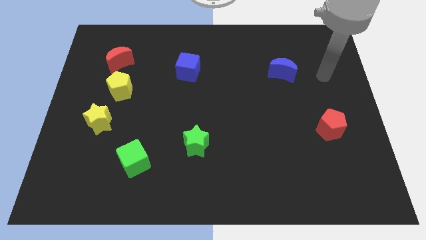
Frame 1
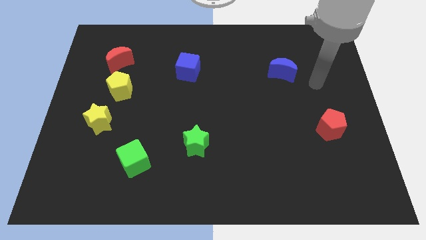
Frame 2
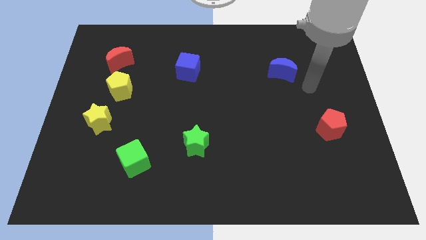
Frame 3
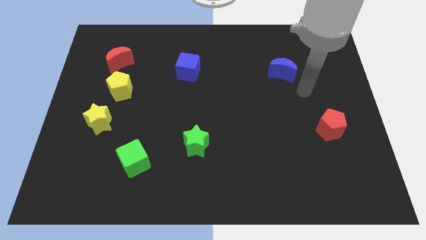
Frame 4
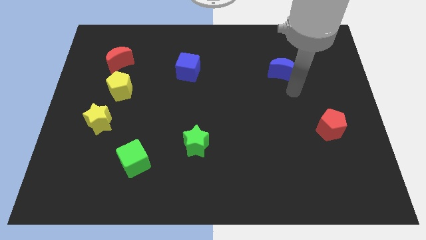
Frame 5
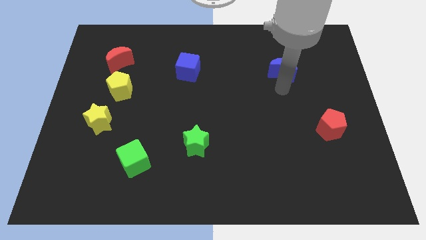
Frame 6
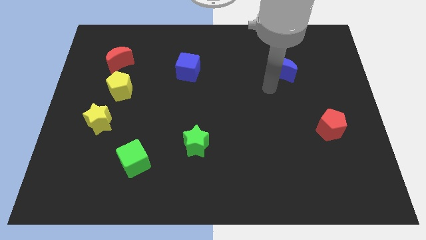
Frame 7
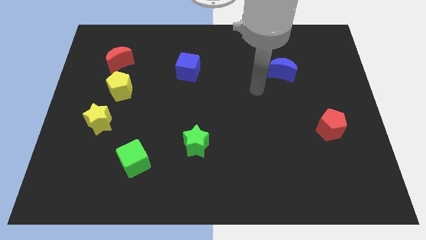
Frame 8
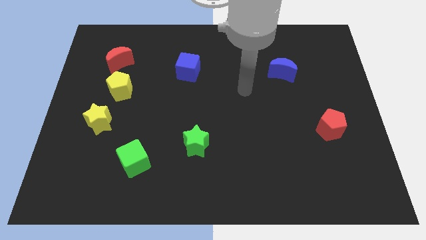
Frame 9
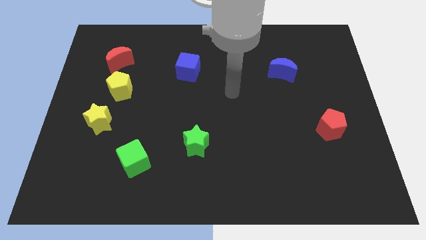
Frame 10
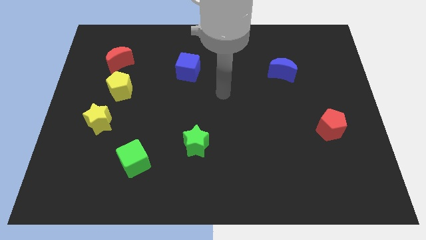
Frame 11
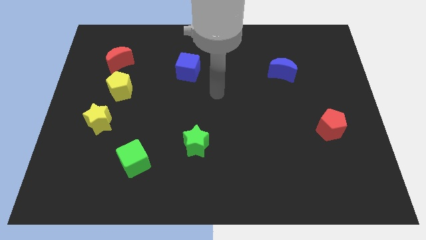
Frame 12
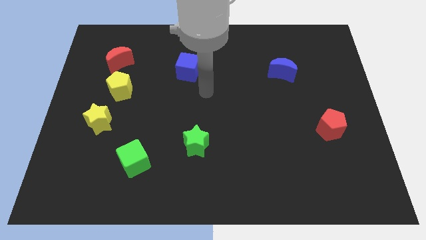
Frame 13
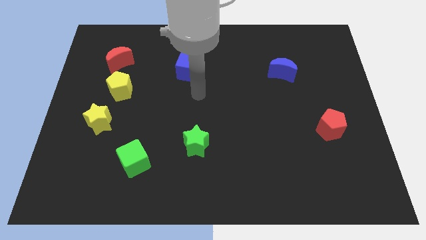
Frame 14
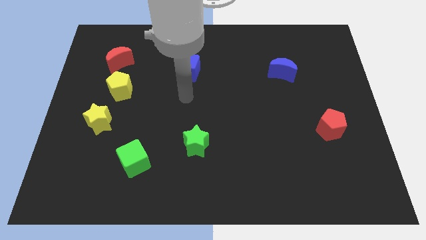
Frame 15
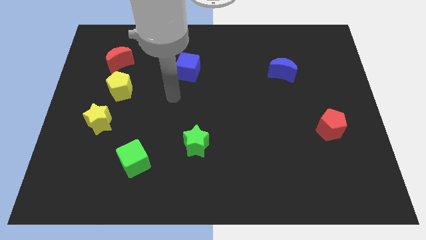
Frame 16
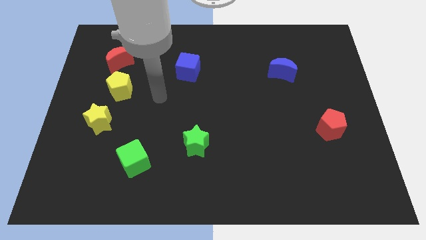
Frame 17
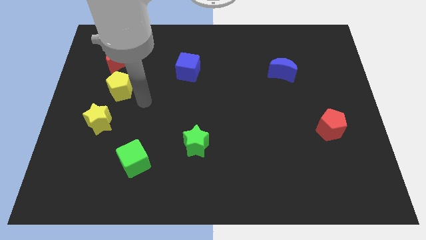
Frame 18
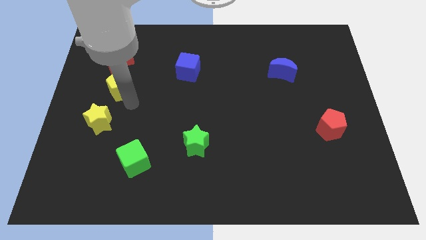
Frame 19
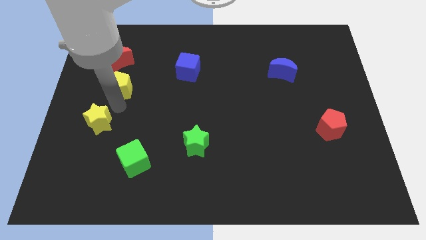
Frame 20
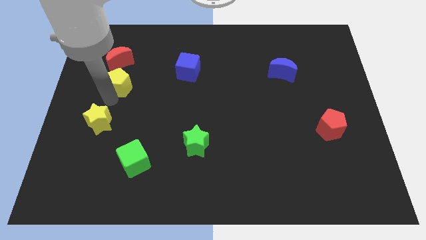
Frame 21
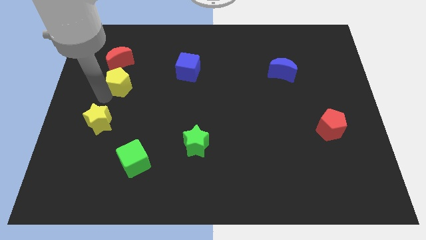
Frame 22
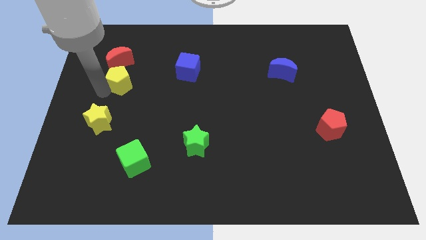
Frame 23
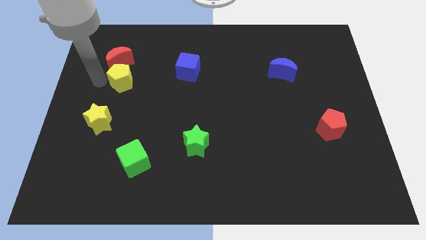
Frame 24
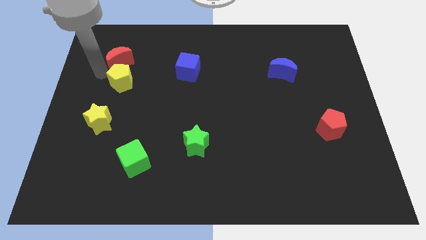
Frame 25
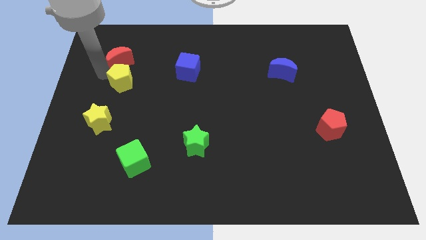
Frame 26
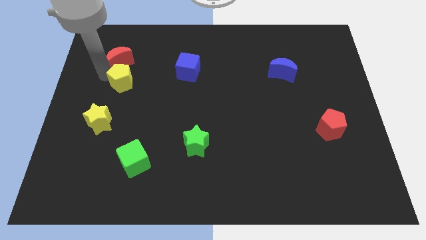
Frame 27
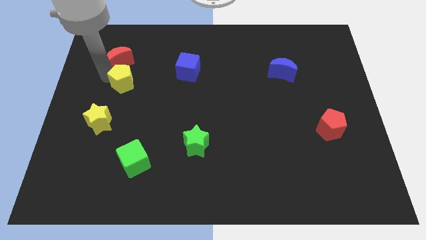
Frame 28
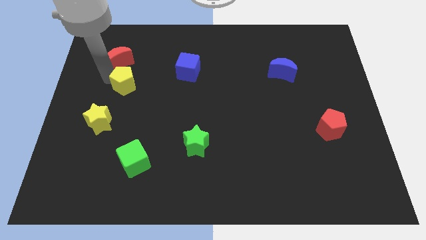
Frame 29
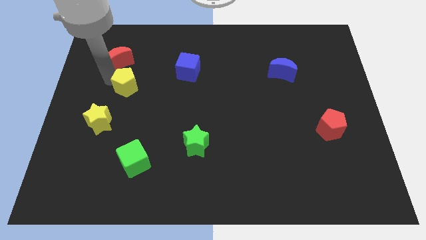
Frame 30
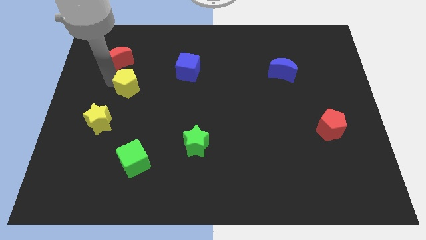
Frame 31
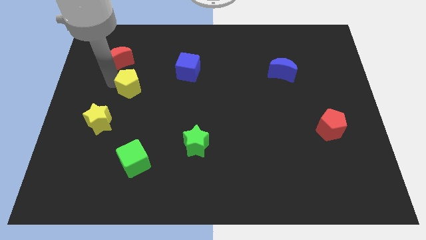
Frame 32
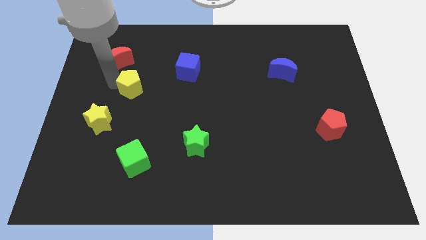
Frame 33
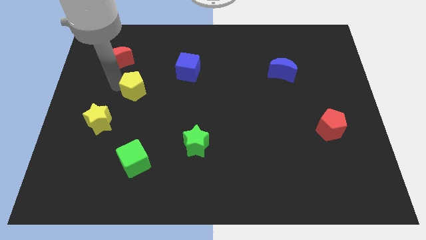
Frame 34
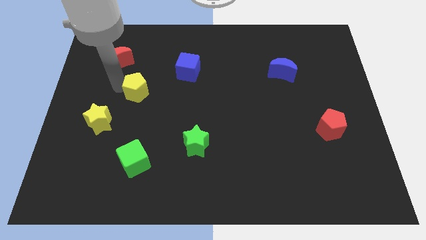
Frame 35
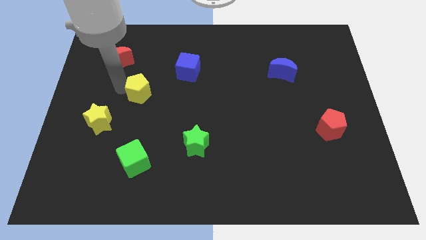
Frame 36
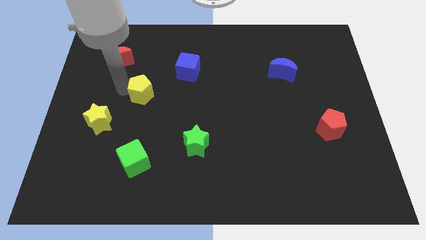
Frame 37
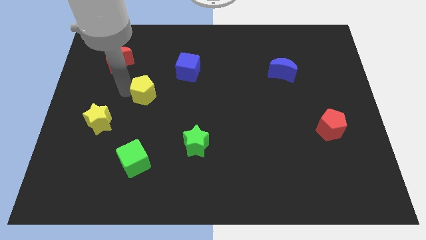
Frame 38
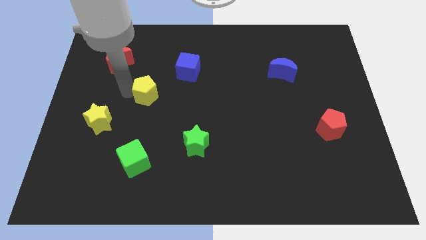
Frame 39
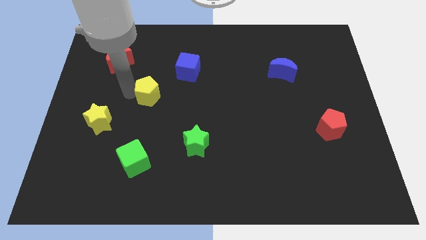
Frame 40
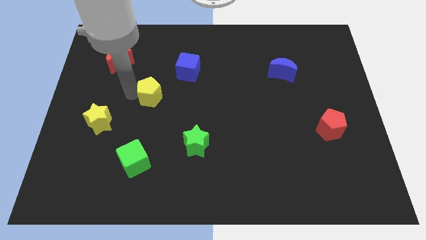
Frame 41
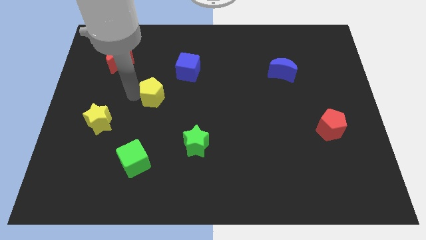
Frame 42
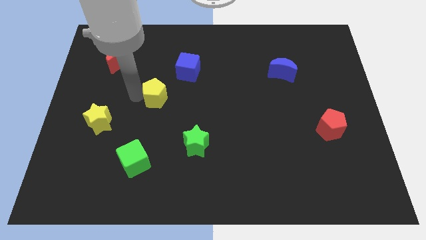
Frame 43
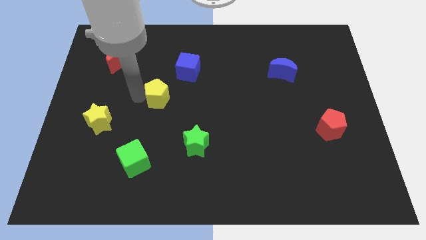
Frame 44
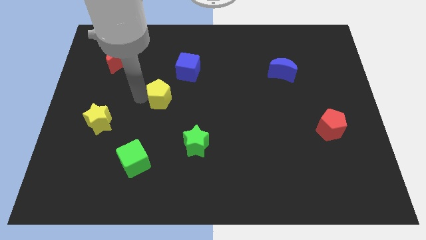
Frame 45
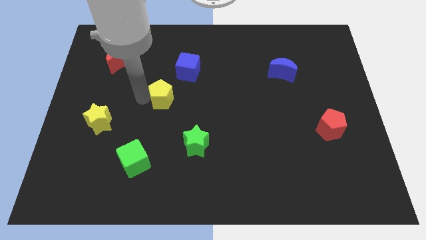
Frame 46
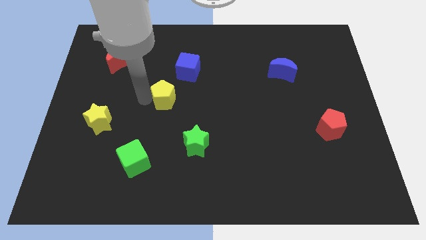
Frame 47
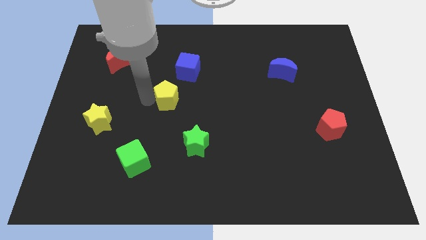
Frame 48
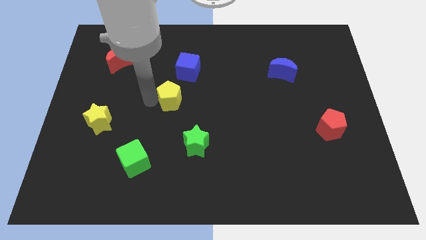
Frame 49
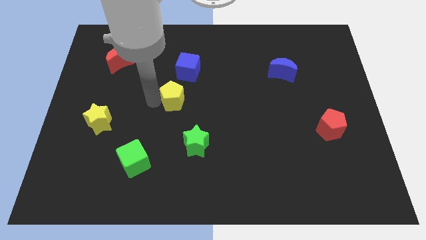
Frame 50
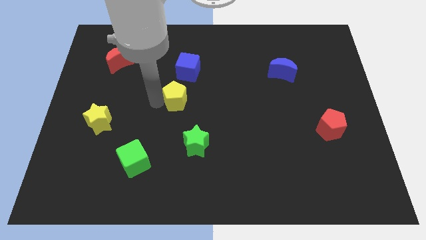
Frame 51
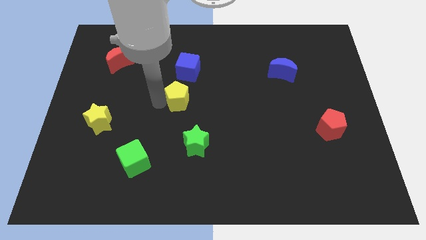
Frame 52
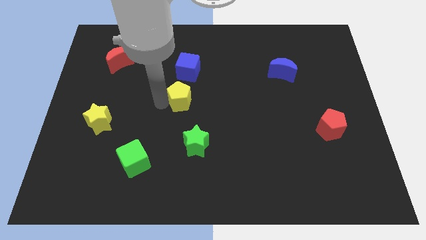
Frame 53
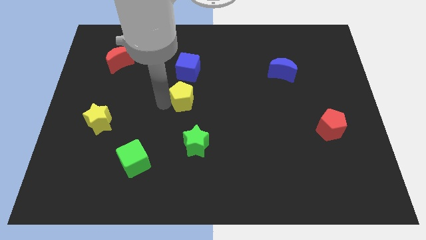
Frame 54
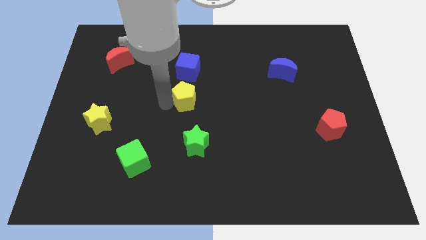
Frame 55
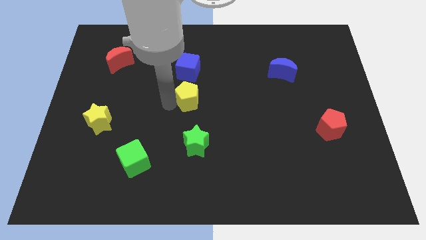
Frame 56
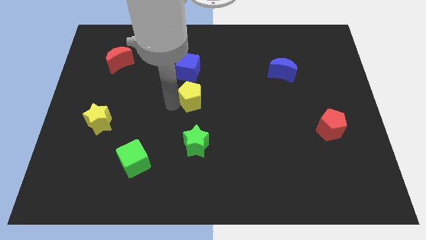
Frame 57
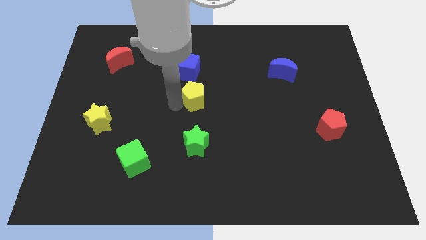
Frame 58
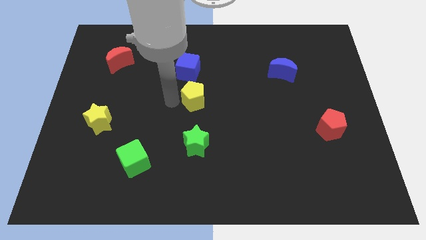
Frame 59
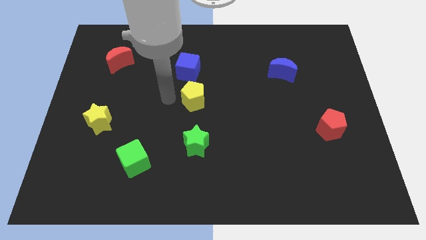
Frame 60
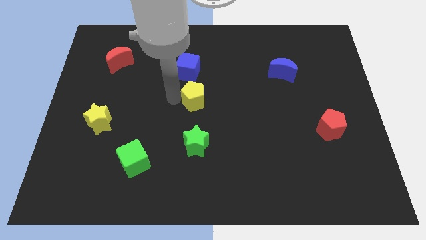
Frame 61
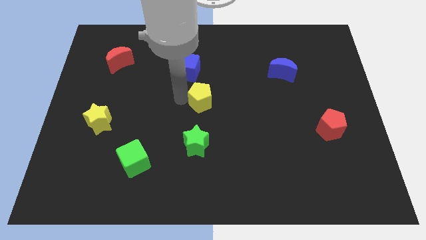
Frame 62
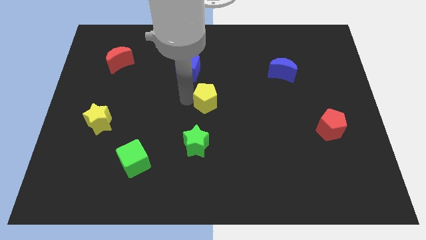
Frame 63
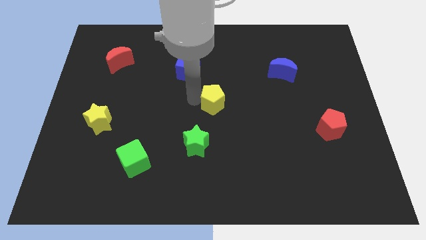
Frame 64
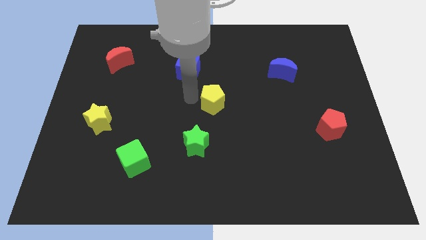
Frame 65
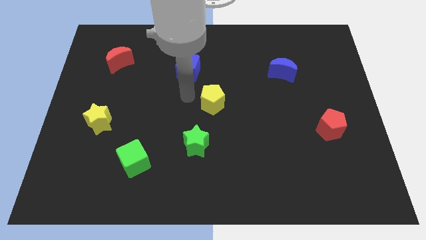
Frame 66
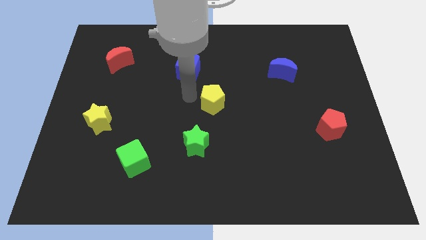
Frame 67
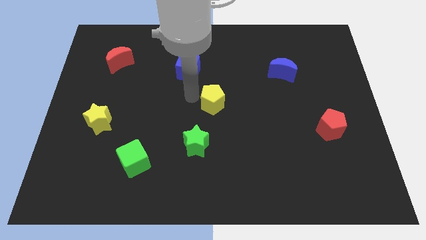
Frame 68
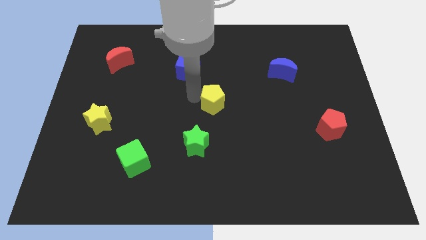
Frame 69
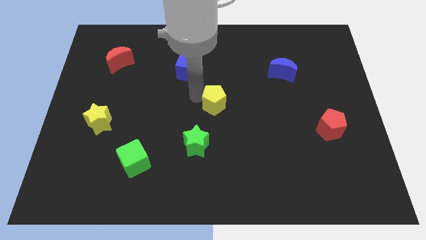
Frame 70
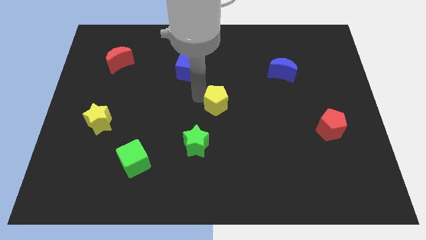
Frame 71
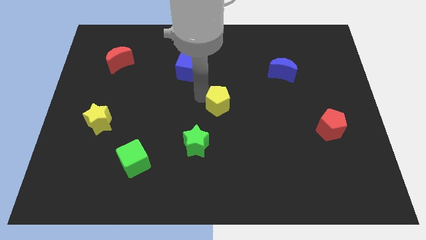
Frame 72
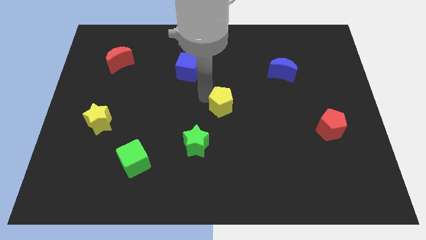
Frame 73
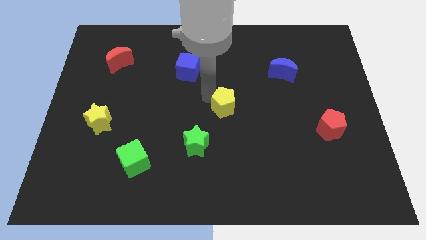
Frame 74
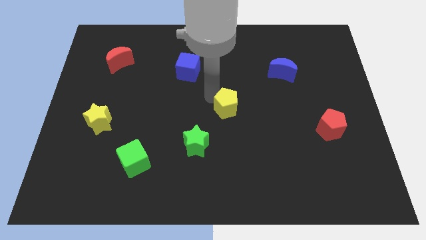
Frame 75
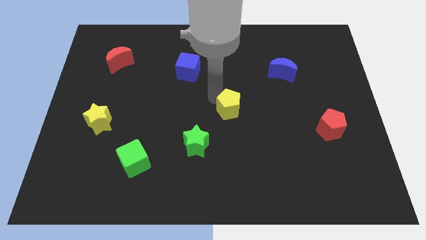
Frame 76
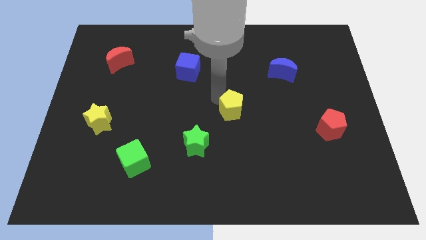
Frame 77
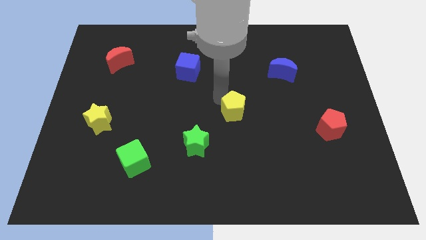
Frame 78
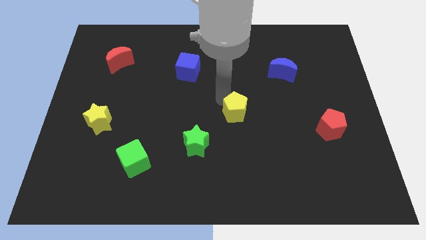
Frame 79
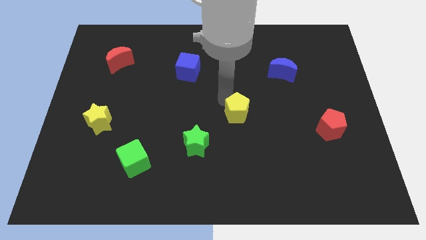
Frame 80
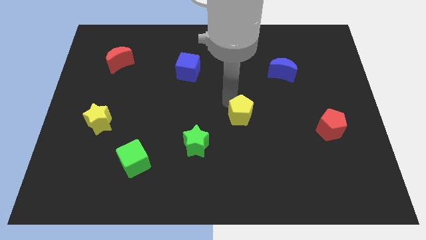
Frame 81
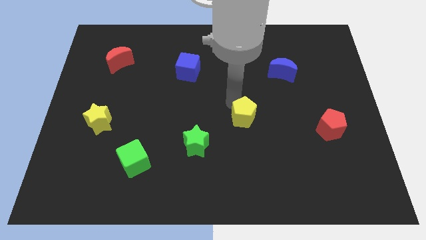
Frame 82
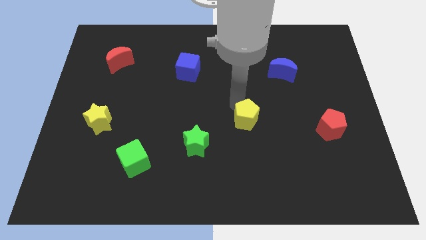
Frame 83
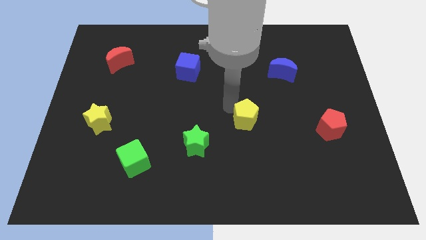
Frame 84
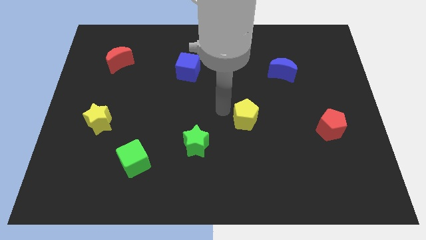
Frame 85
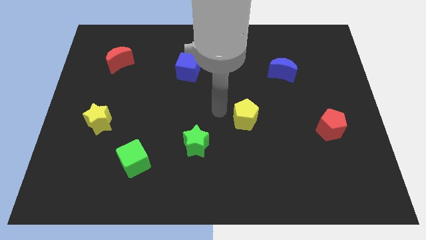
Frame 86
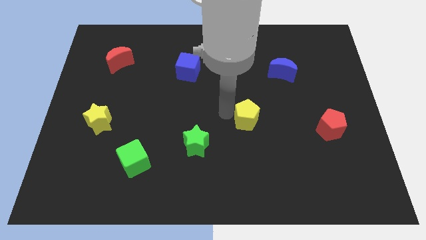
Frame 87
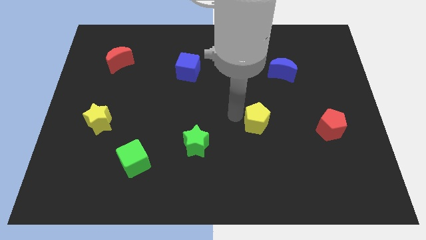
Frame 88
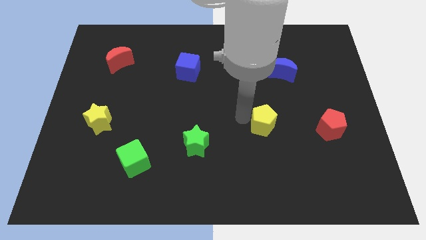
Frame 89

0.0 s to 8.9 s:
put the yellow pentagon to the left of the red pentagon
